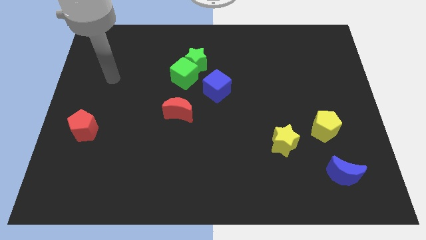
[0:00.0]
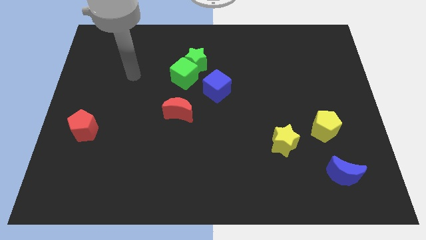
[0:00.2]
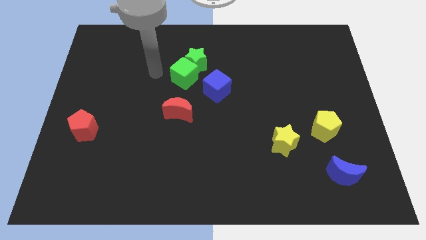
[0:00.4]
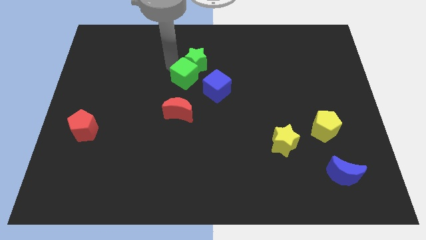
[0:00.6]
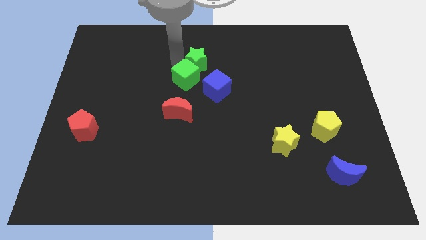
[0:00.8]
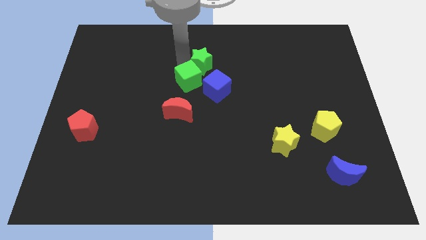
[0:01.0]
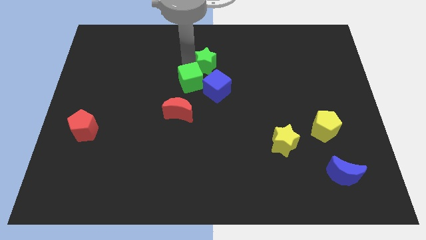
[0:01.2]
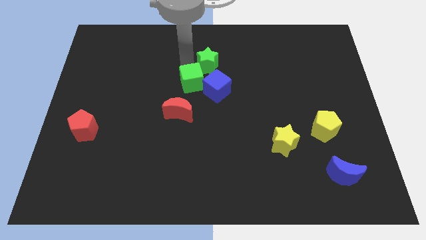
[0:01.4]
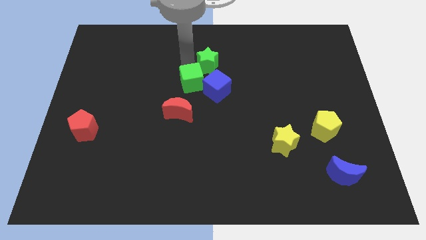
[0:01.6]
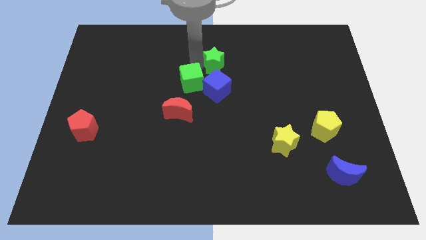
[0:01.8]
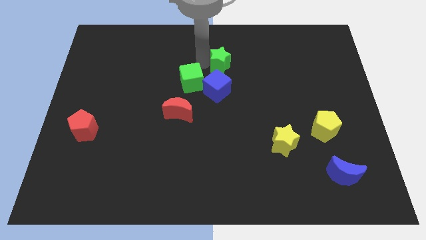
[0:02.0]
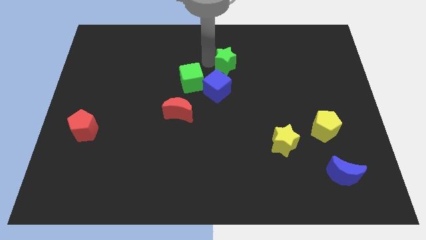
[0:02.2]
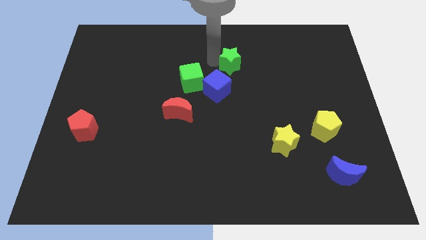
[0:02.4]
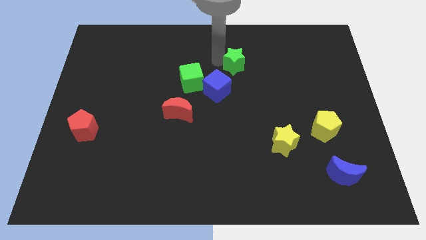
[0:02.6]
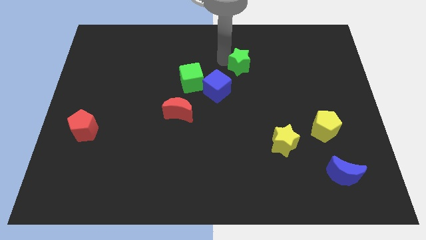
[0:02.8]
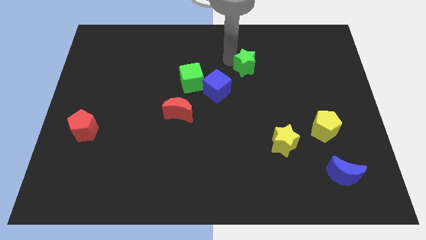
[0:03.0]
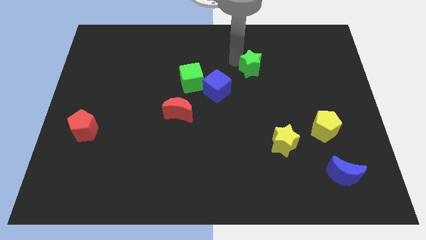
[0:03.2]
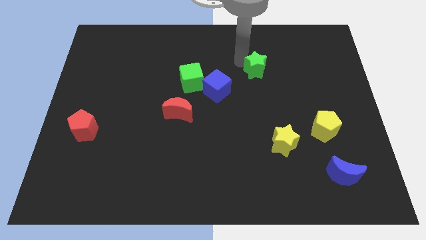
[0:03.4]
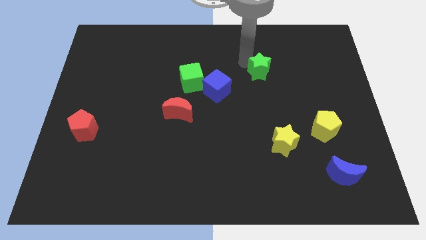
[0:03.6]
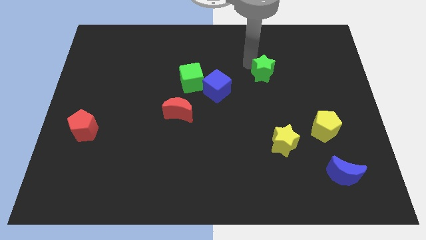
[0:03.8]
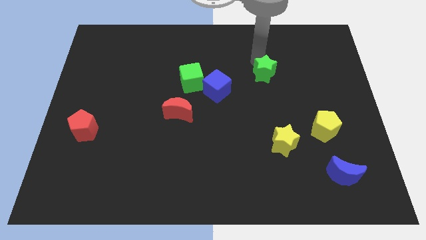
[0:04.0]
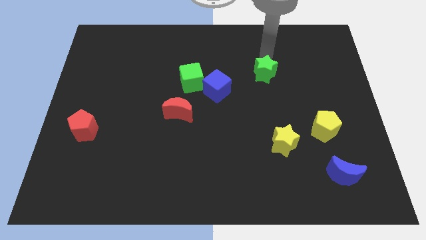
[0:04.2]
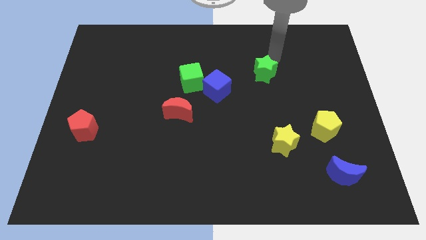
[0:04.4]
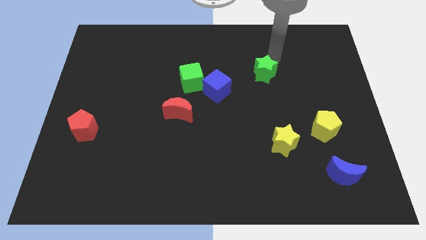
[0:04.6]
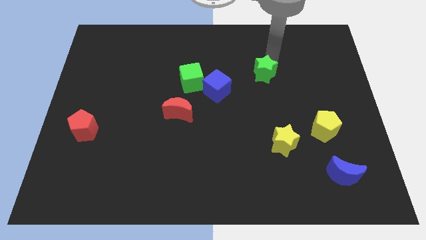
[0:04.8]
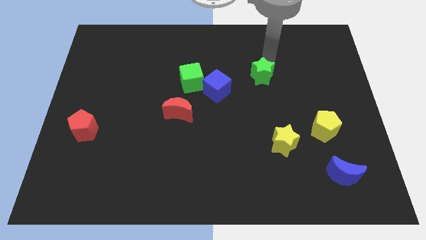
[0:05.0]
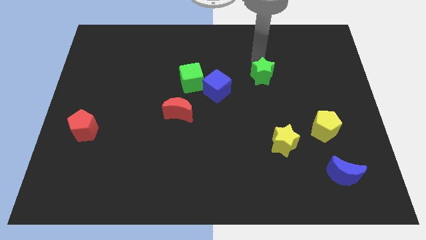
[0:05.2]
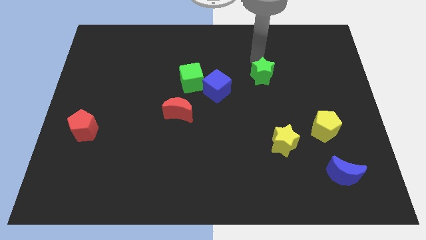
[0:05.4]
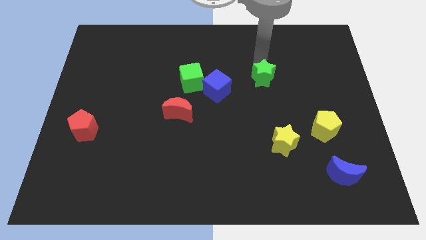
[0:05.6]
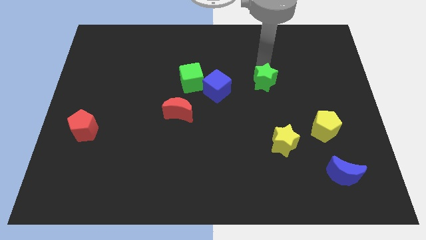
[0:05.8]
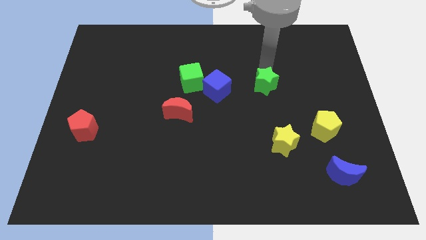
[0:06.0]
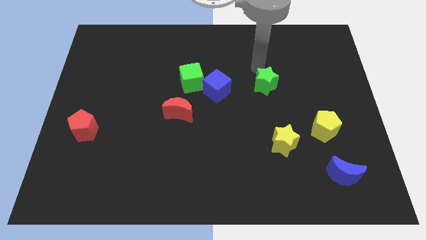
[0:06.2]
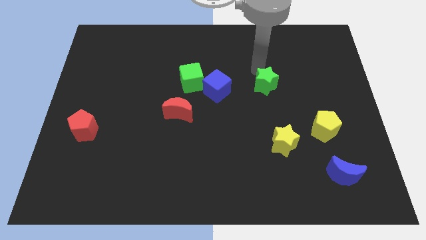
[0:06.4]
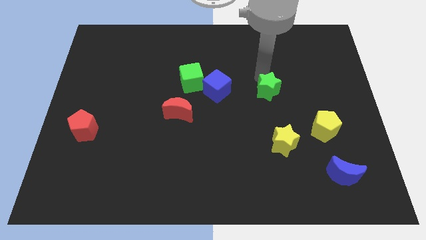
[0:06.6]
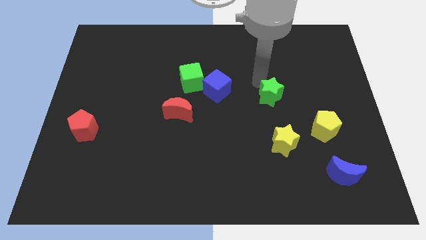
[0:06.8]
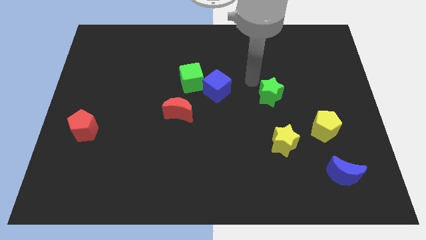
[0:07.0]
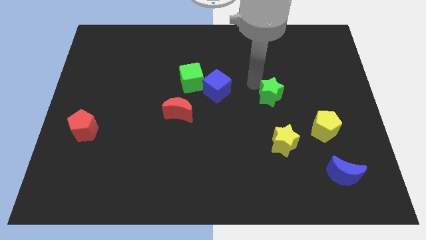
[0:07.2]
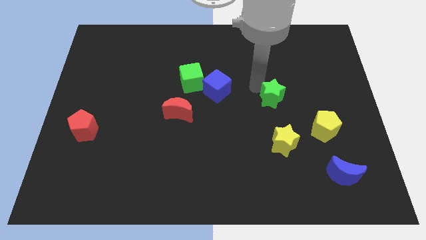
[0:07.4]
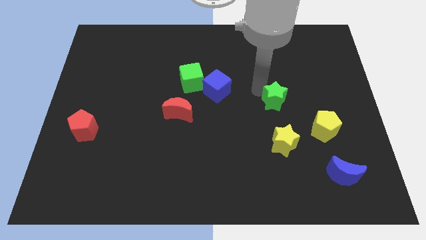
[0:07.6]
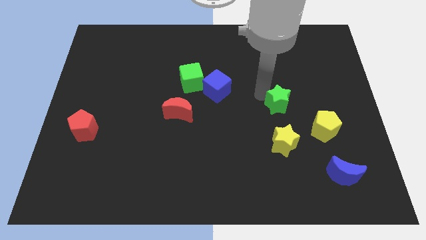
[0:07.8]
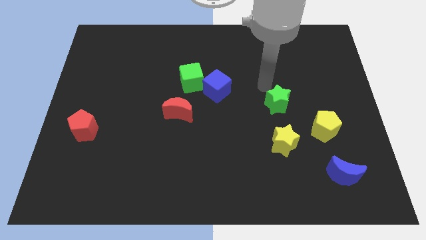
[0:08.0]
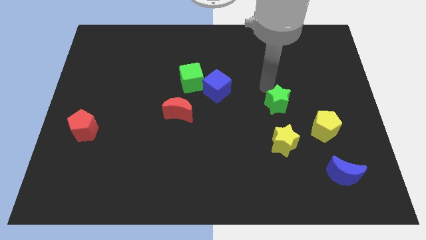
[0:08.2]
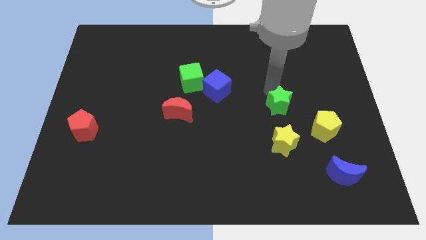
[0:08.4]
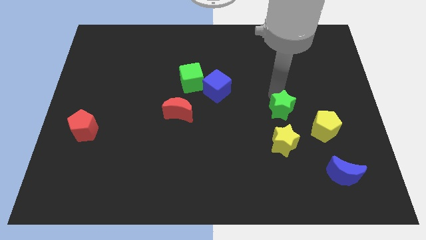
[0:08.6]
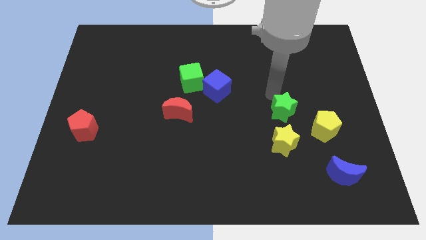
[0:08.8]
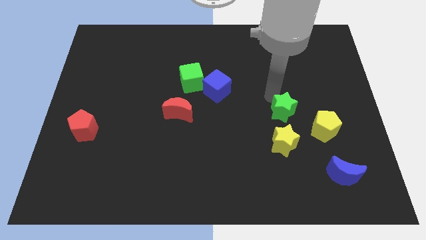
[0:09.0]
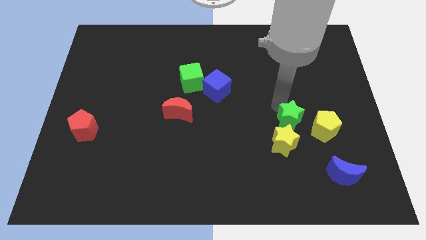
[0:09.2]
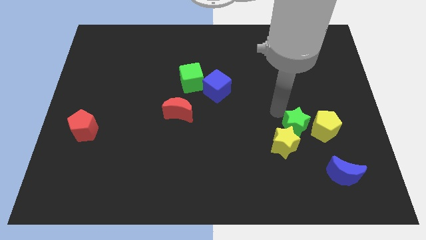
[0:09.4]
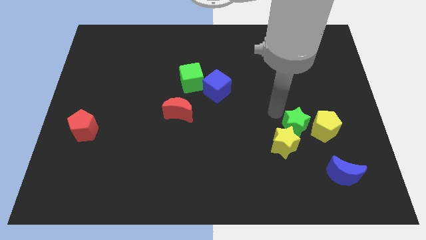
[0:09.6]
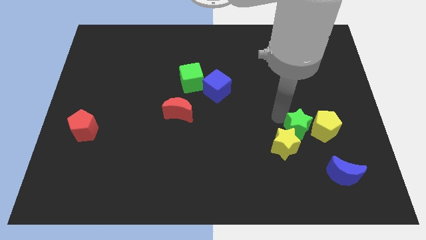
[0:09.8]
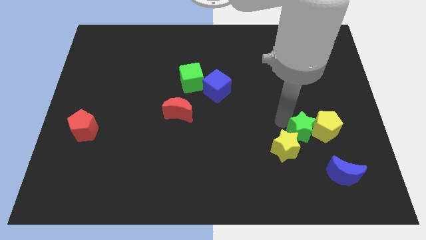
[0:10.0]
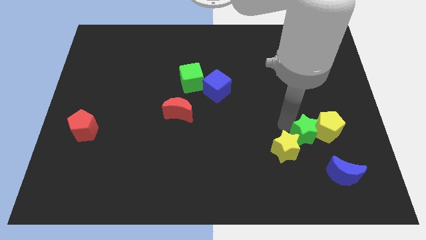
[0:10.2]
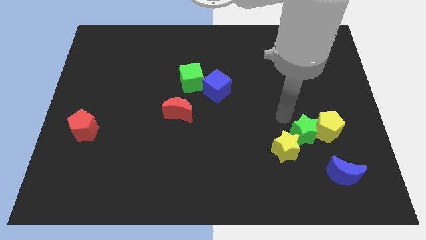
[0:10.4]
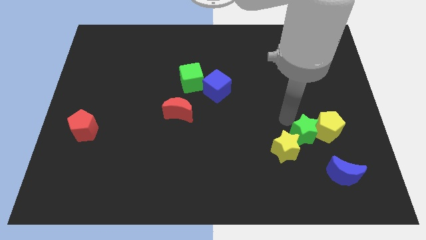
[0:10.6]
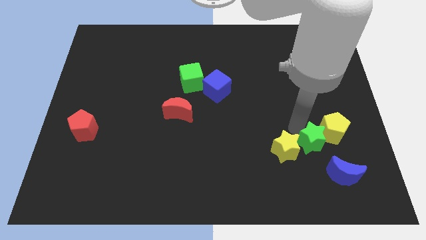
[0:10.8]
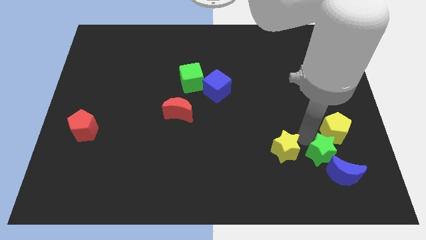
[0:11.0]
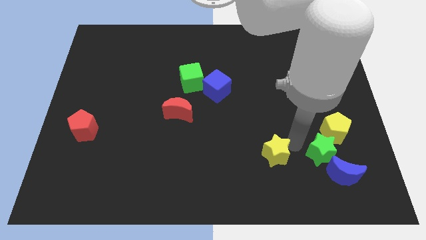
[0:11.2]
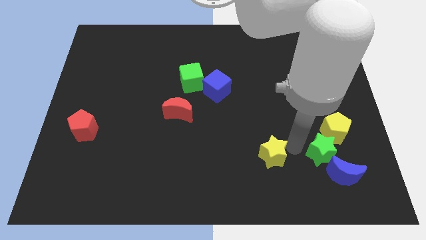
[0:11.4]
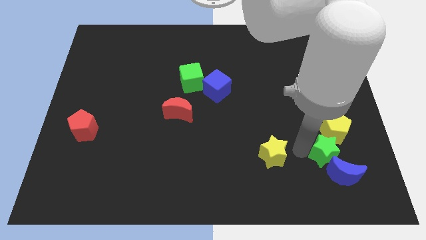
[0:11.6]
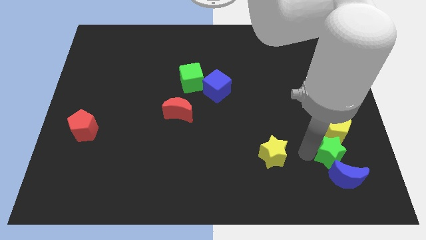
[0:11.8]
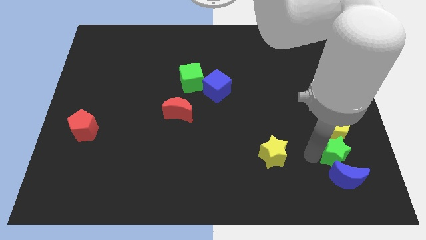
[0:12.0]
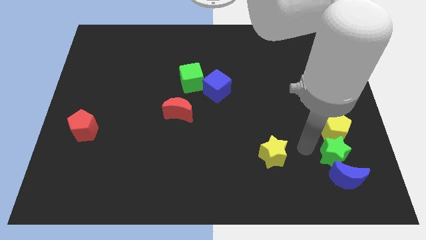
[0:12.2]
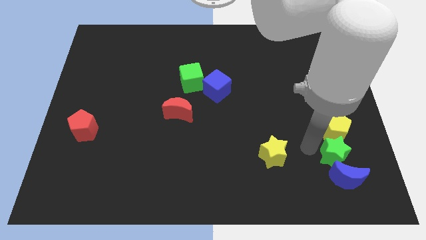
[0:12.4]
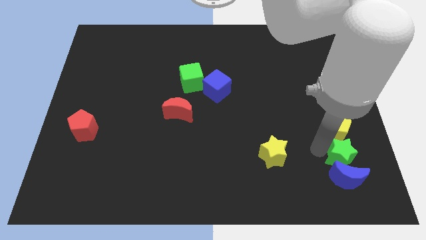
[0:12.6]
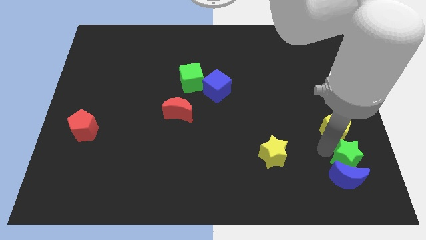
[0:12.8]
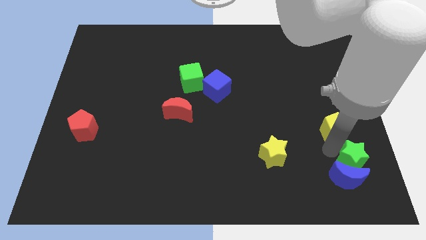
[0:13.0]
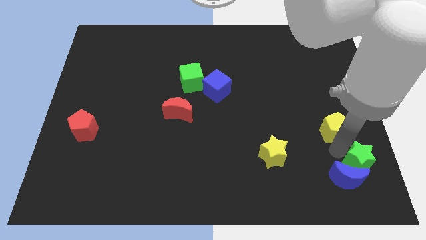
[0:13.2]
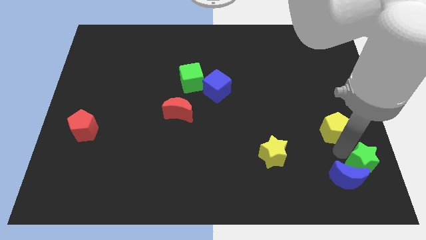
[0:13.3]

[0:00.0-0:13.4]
put the green star to the bottom right of the board
